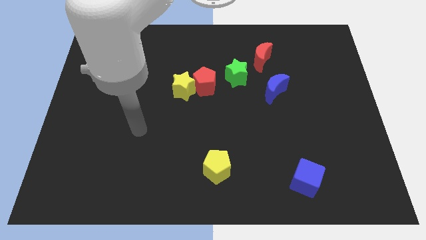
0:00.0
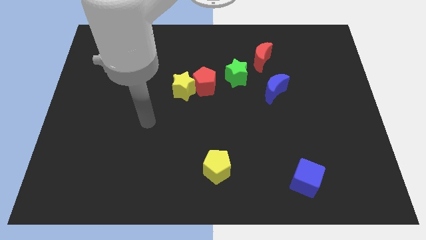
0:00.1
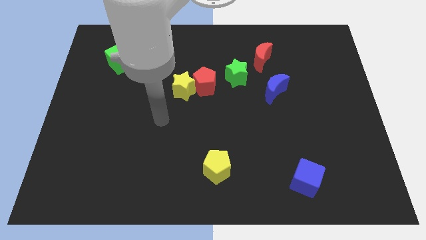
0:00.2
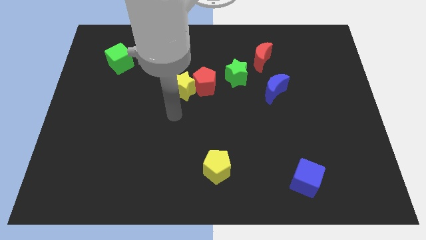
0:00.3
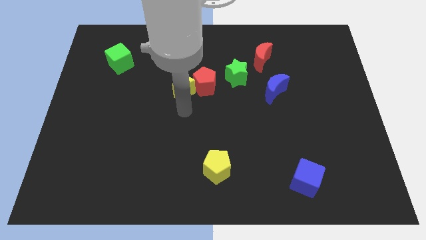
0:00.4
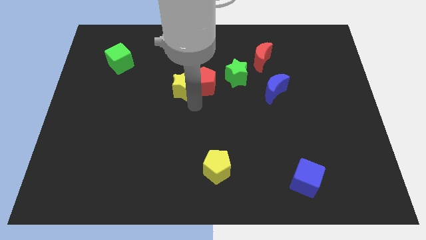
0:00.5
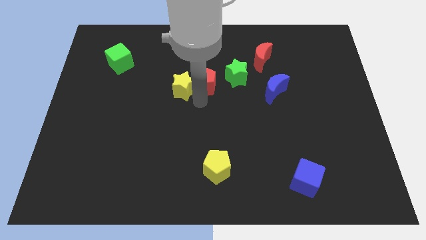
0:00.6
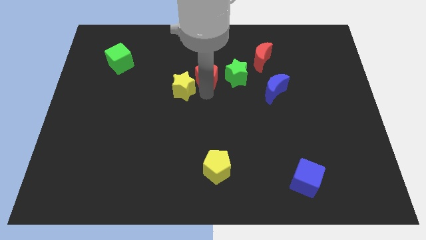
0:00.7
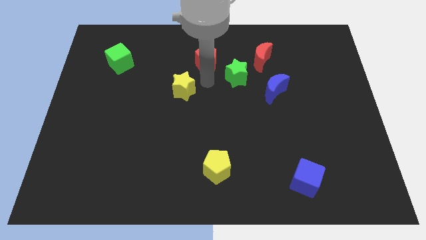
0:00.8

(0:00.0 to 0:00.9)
pull the yellow star apart from the red pentagon

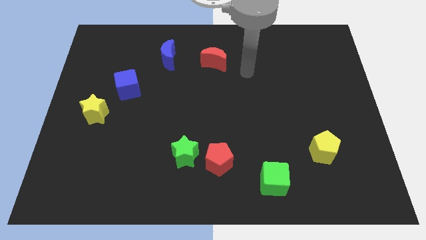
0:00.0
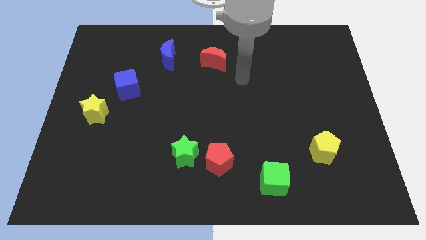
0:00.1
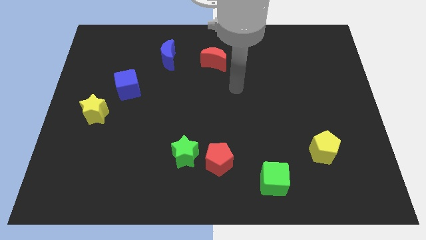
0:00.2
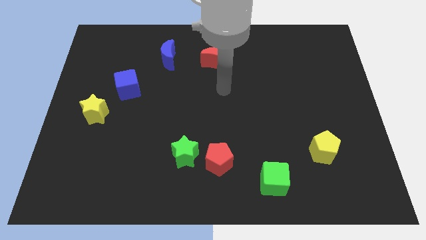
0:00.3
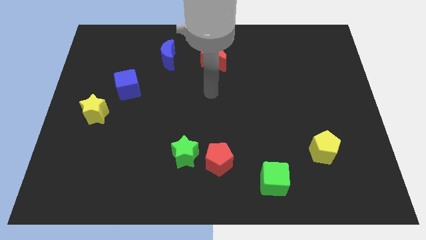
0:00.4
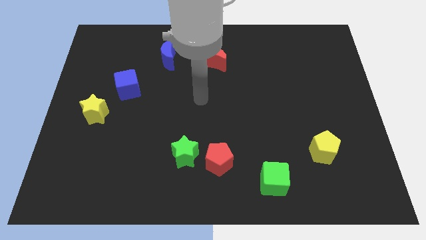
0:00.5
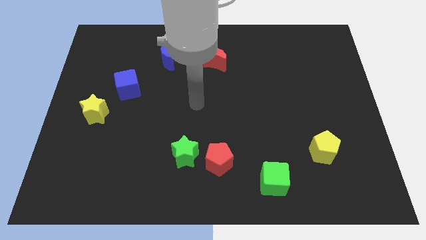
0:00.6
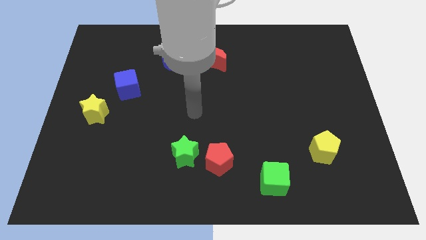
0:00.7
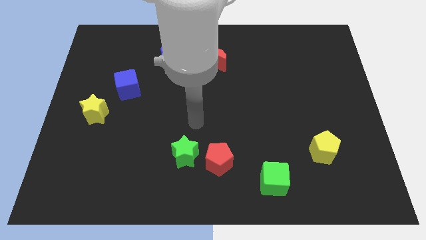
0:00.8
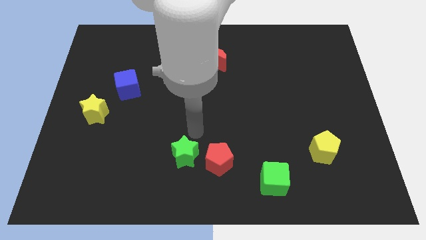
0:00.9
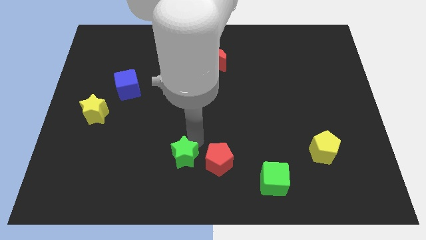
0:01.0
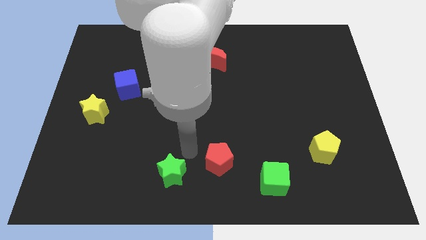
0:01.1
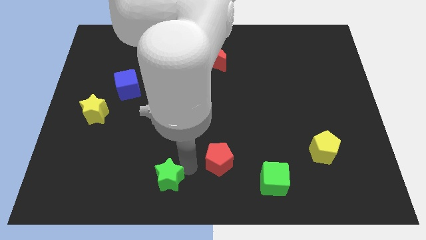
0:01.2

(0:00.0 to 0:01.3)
separate the red pentagon from the green star

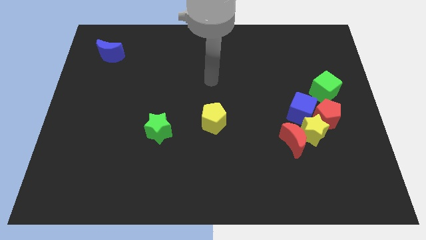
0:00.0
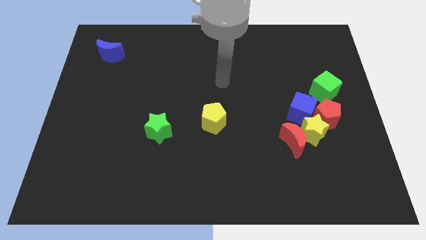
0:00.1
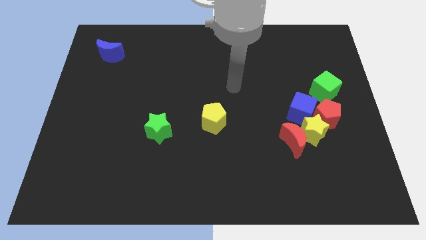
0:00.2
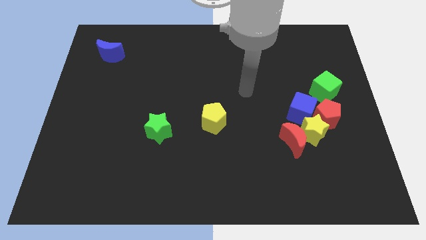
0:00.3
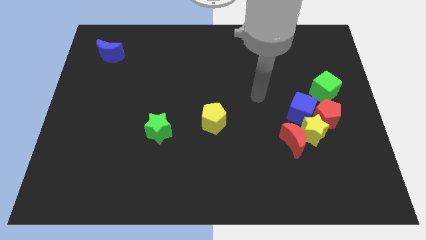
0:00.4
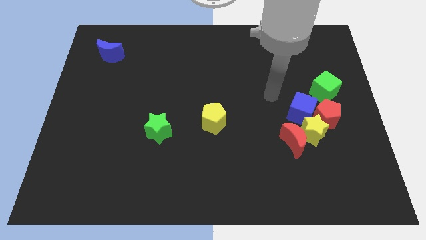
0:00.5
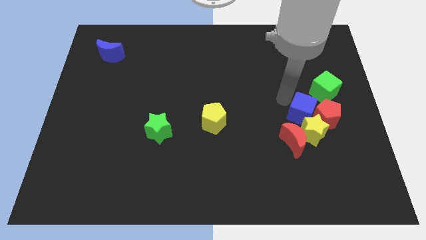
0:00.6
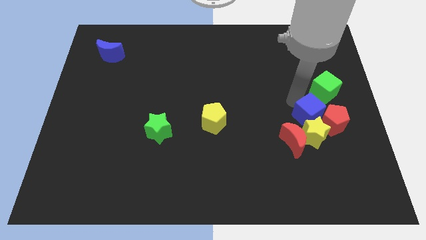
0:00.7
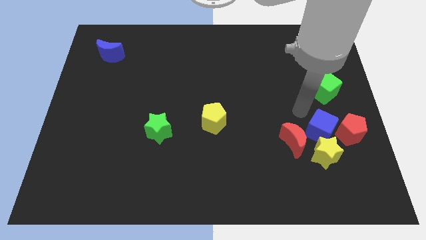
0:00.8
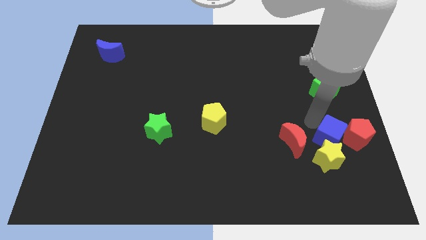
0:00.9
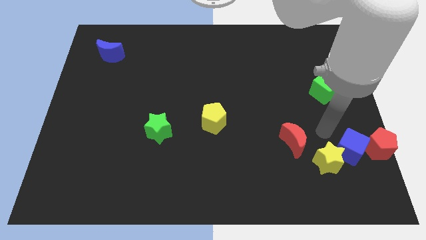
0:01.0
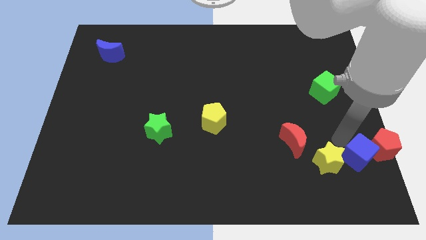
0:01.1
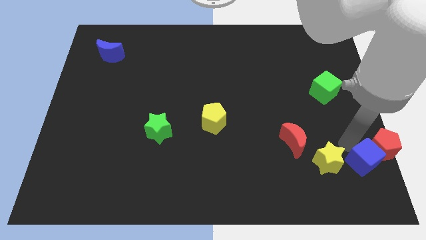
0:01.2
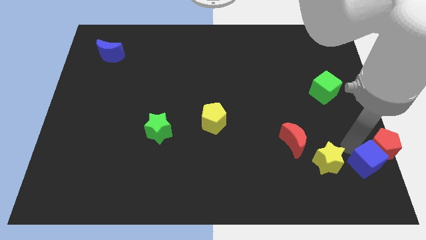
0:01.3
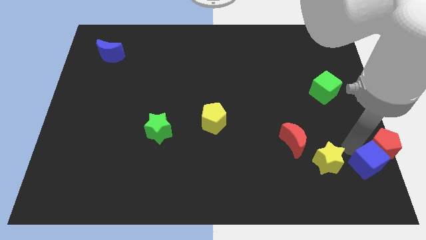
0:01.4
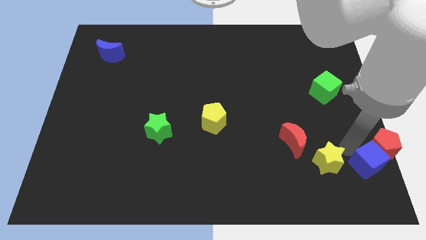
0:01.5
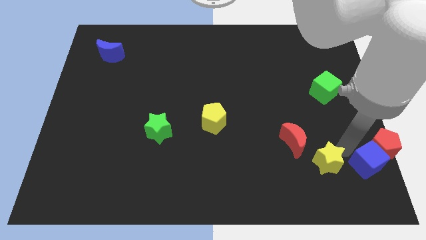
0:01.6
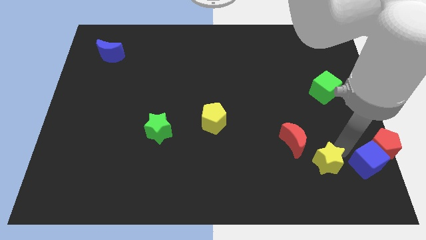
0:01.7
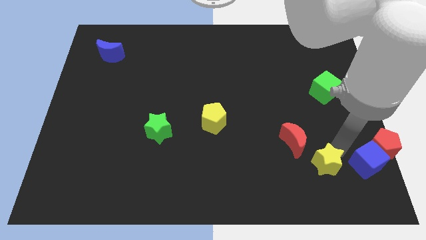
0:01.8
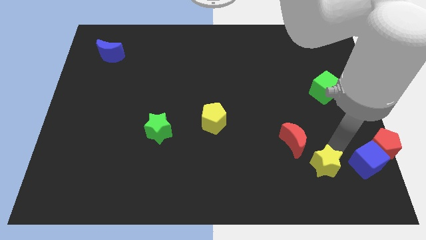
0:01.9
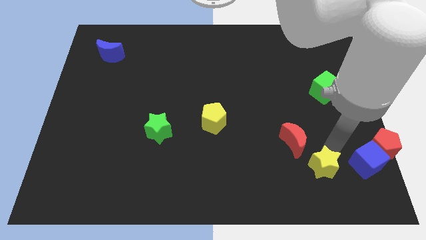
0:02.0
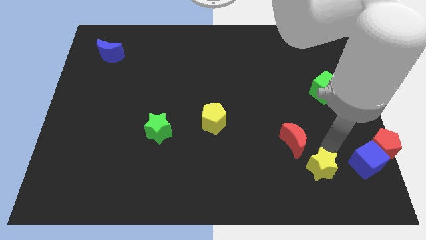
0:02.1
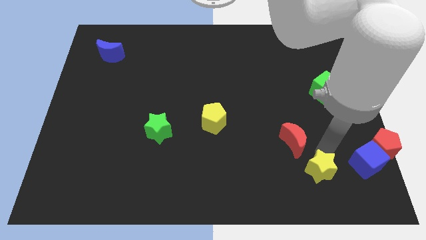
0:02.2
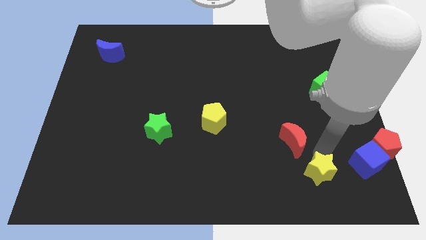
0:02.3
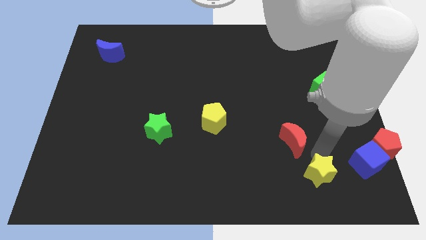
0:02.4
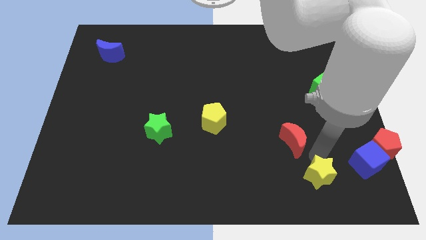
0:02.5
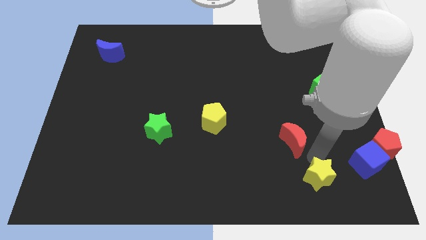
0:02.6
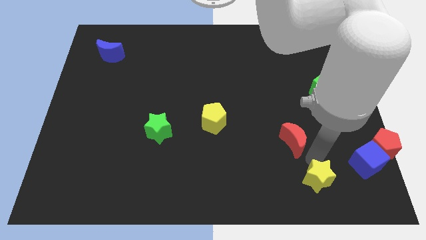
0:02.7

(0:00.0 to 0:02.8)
separate the yellow star from the red moon, red pentagon, and blue cube

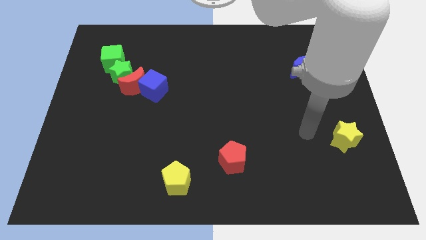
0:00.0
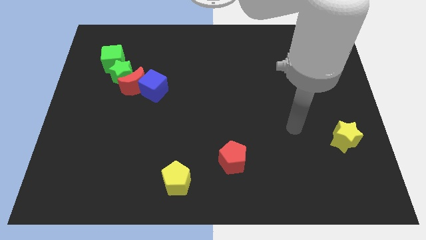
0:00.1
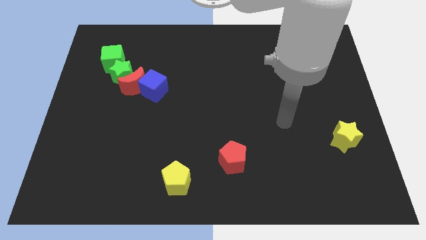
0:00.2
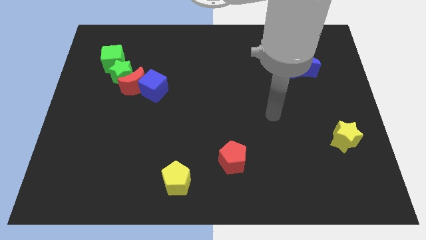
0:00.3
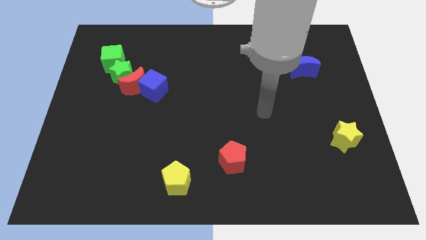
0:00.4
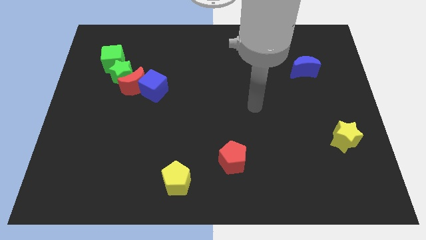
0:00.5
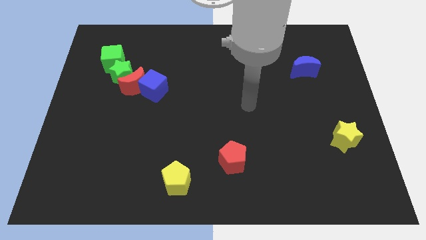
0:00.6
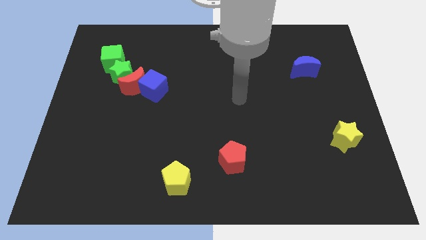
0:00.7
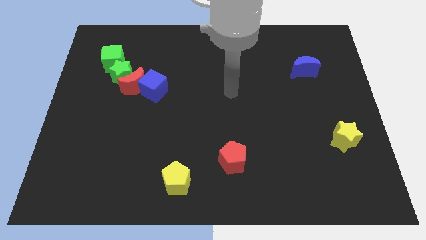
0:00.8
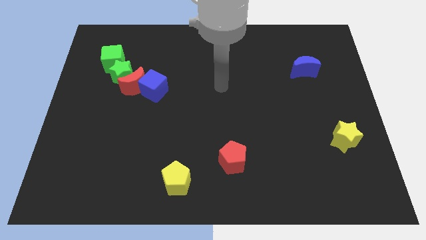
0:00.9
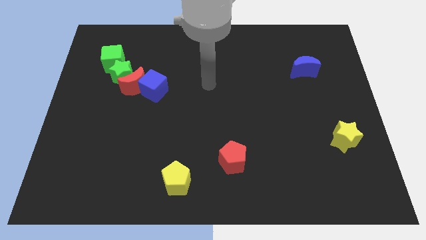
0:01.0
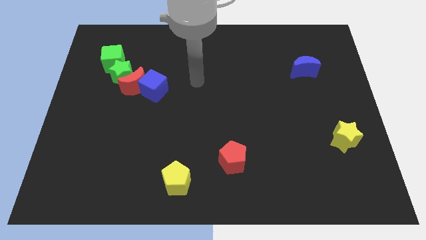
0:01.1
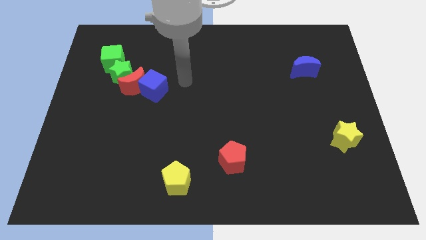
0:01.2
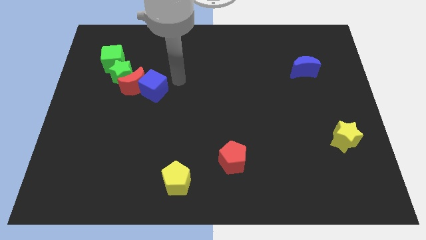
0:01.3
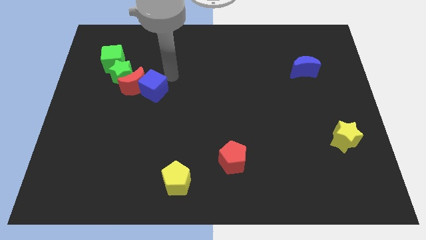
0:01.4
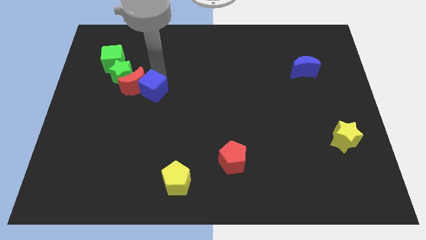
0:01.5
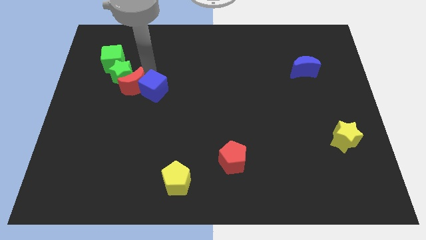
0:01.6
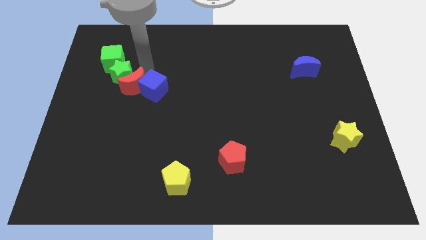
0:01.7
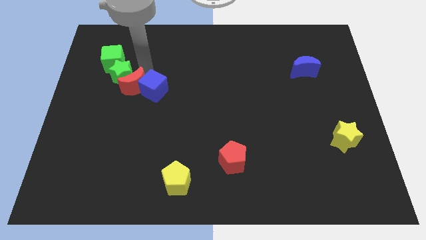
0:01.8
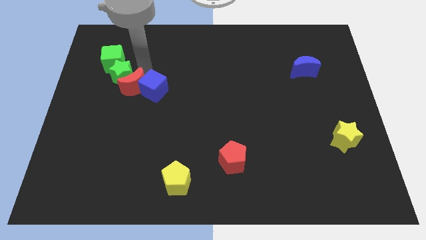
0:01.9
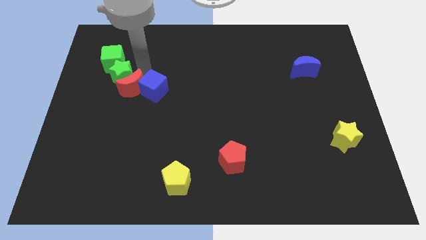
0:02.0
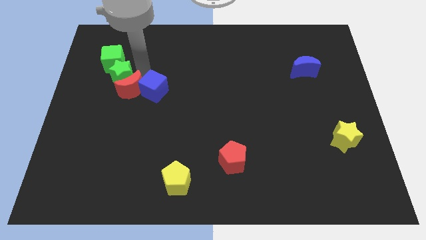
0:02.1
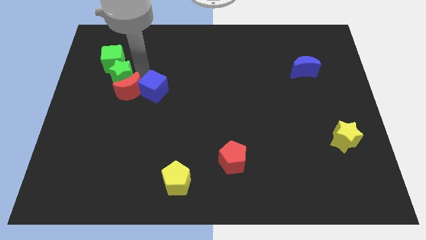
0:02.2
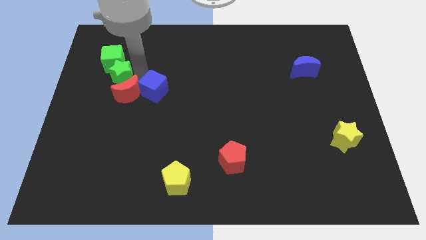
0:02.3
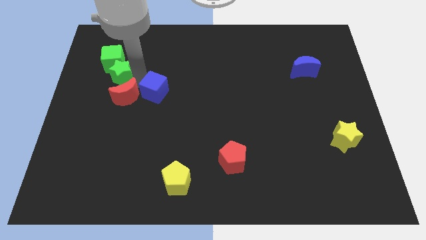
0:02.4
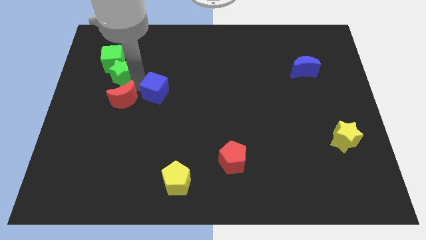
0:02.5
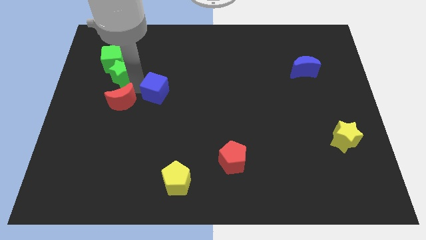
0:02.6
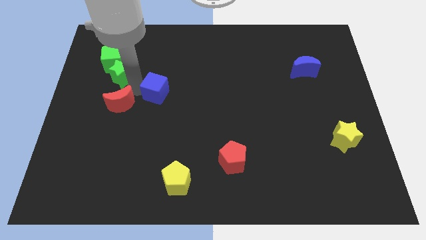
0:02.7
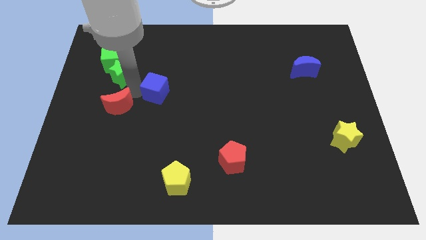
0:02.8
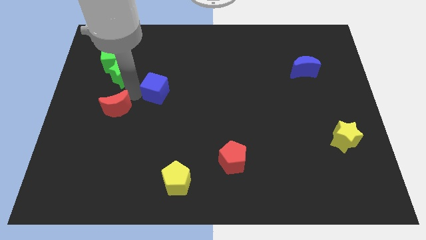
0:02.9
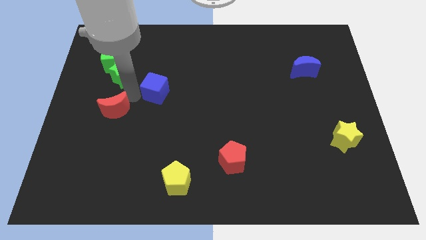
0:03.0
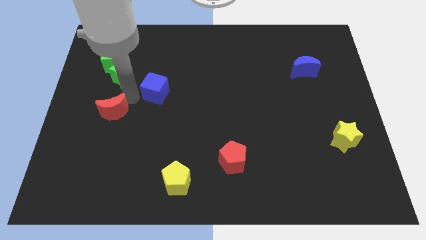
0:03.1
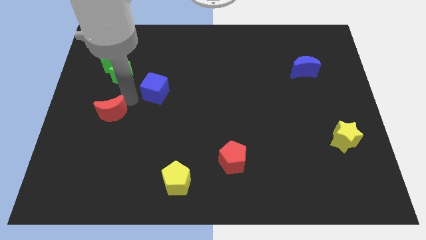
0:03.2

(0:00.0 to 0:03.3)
pull the red moon apart from the green star and blue cube

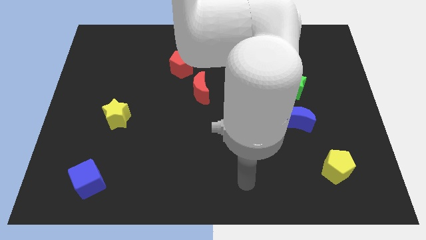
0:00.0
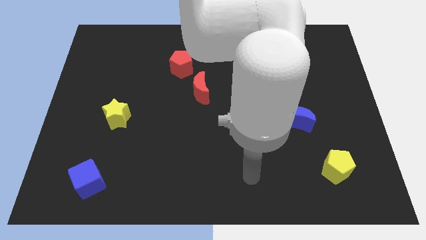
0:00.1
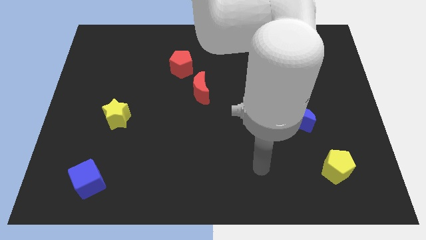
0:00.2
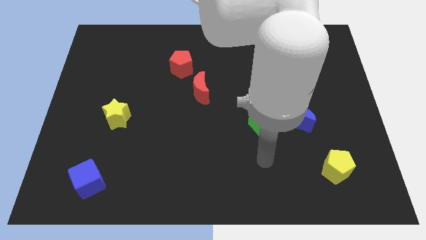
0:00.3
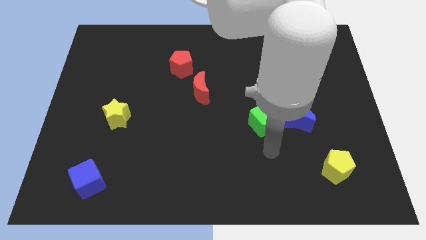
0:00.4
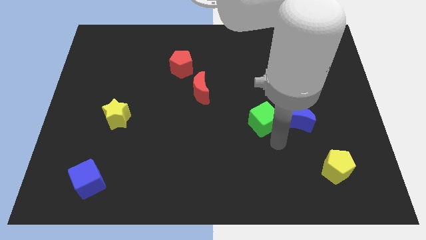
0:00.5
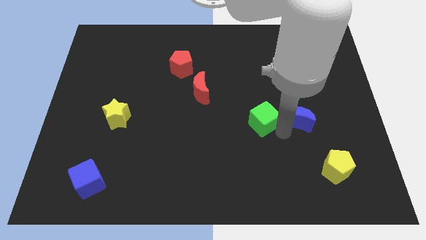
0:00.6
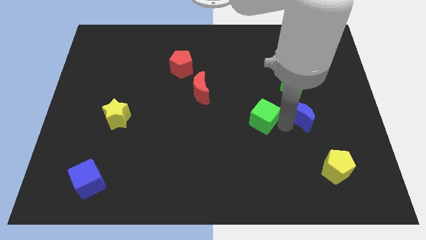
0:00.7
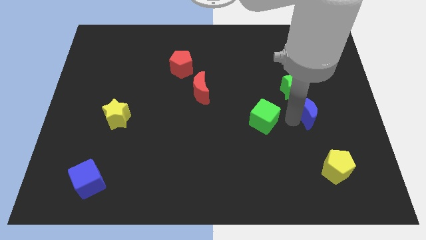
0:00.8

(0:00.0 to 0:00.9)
separate the green cube from the blue moon

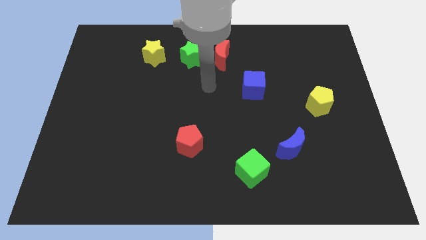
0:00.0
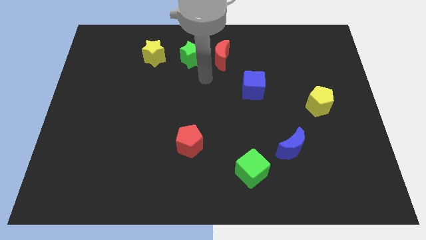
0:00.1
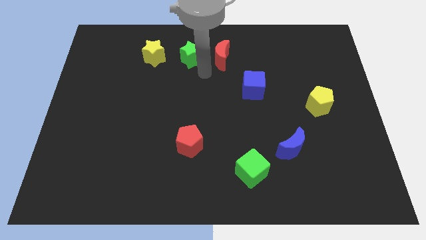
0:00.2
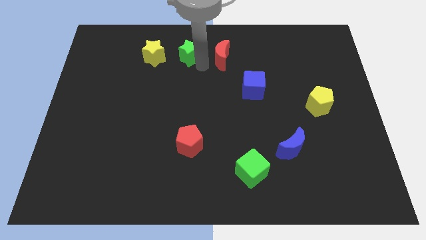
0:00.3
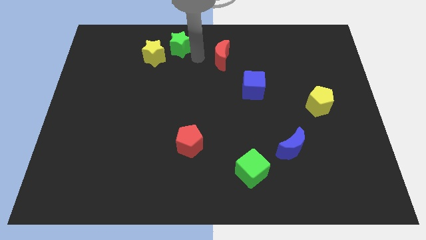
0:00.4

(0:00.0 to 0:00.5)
separate the red moon from the green star
